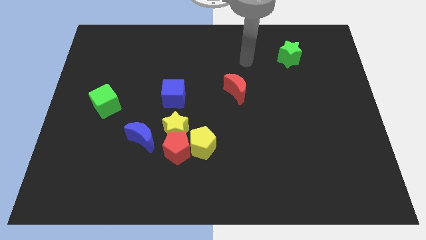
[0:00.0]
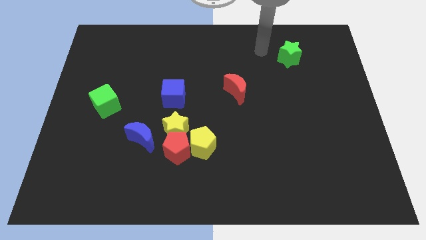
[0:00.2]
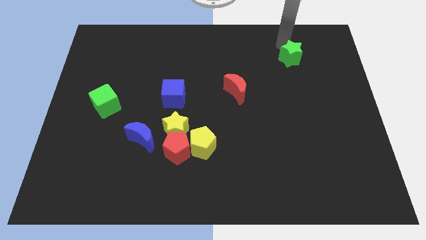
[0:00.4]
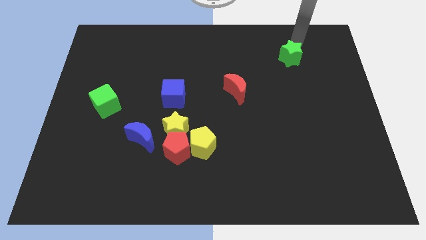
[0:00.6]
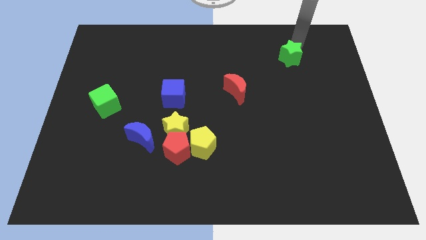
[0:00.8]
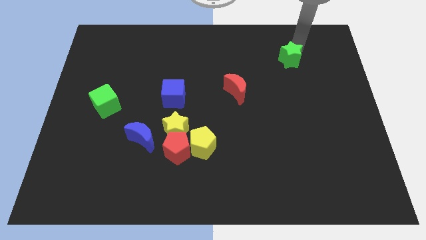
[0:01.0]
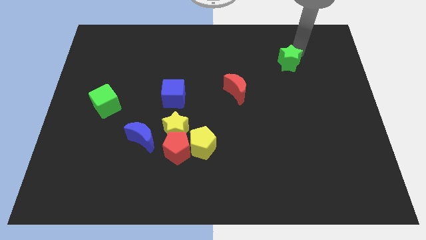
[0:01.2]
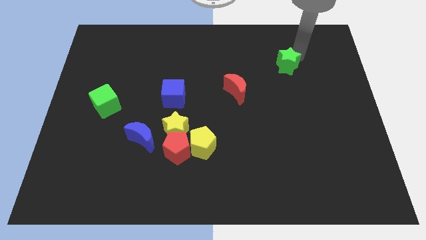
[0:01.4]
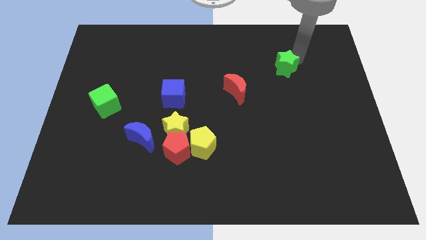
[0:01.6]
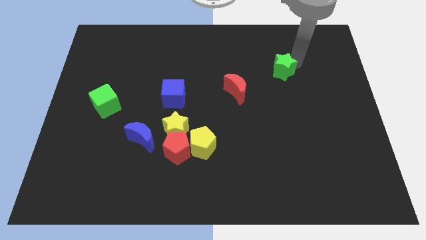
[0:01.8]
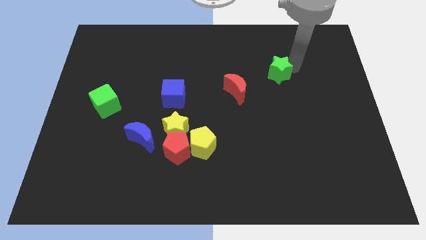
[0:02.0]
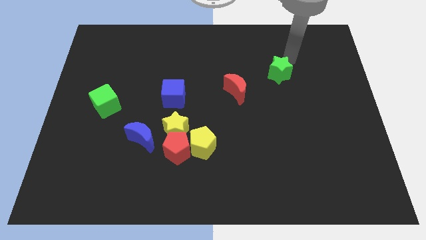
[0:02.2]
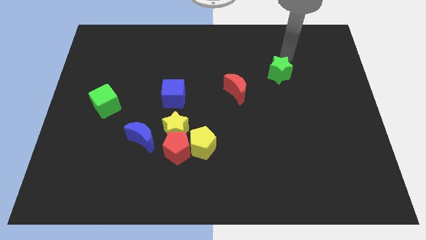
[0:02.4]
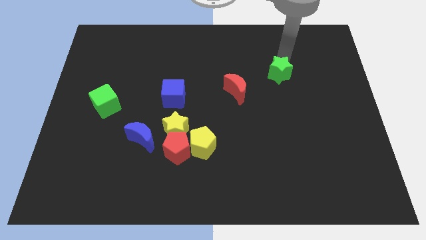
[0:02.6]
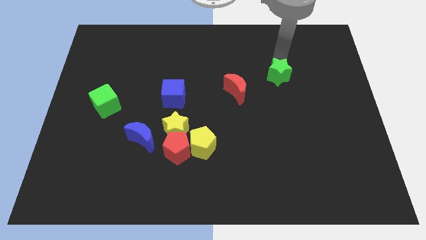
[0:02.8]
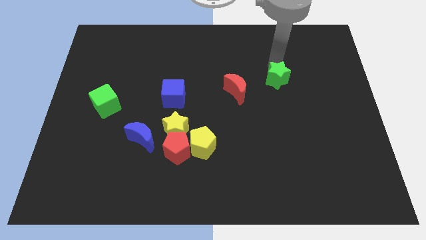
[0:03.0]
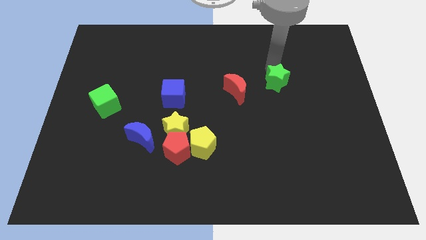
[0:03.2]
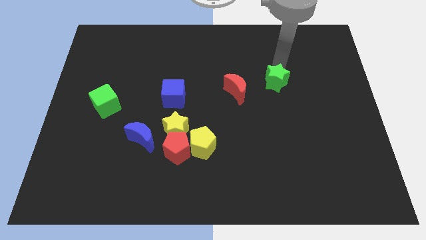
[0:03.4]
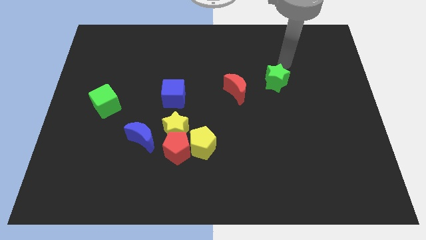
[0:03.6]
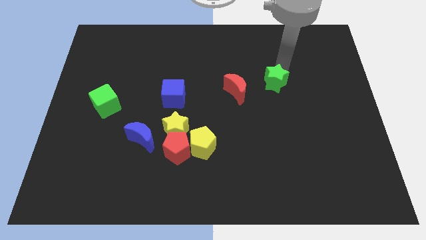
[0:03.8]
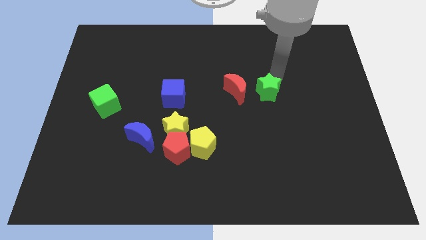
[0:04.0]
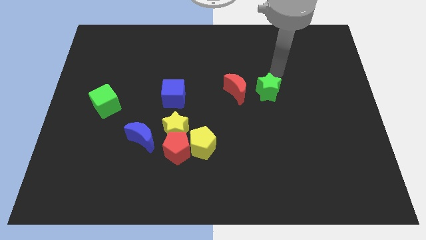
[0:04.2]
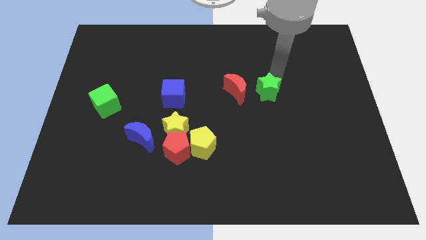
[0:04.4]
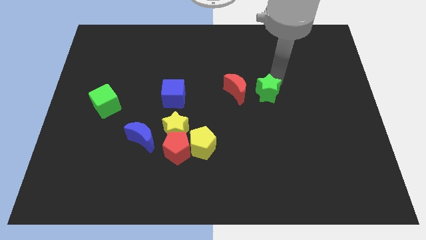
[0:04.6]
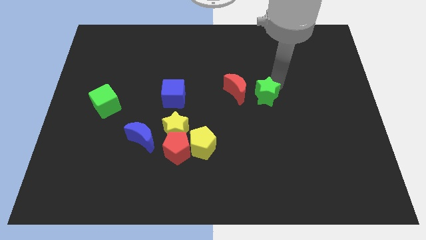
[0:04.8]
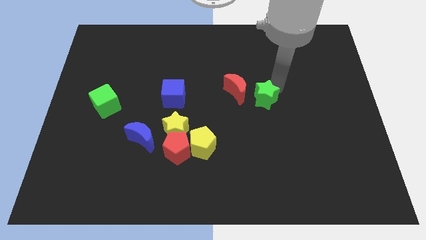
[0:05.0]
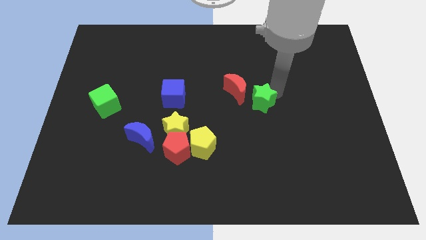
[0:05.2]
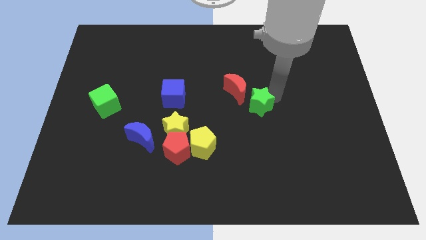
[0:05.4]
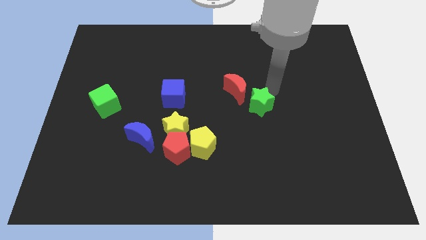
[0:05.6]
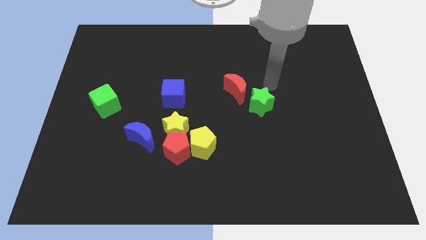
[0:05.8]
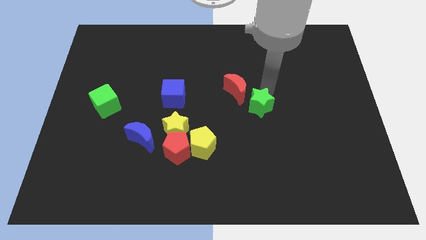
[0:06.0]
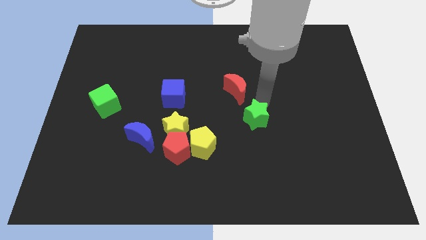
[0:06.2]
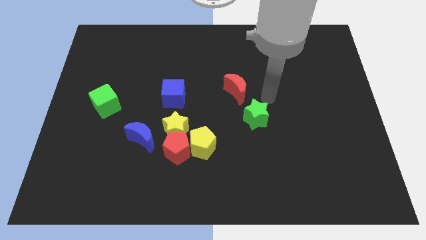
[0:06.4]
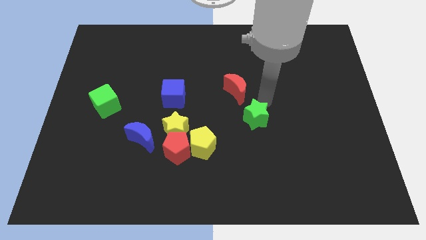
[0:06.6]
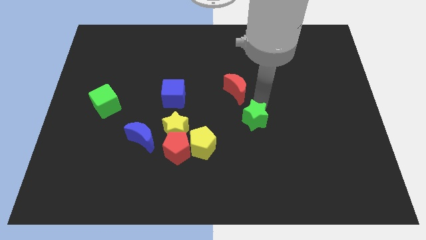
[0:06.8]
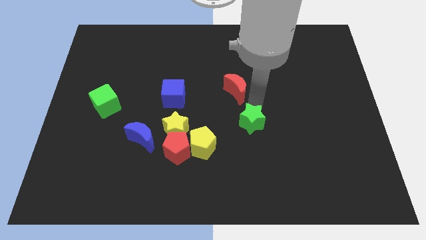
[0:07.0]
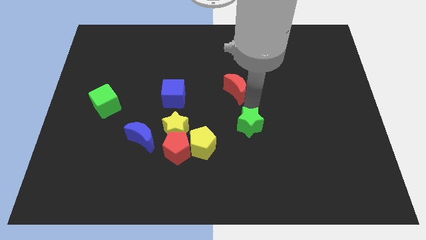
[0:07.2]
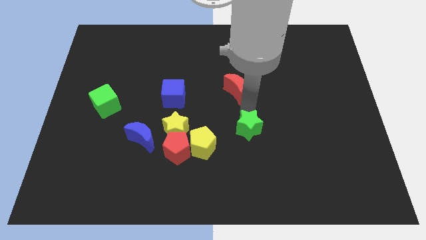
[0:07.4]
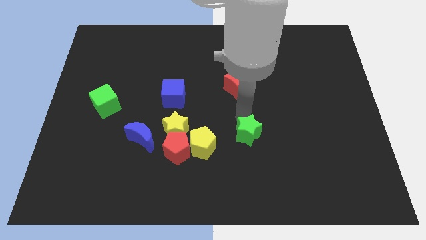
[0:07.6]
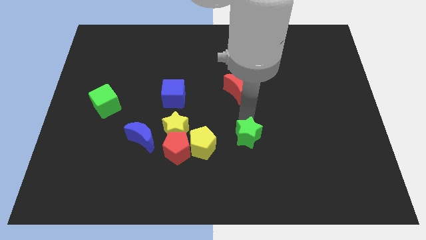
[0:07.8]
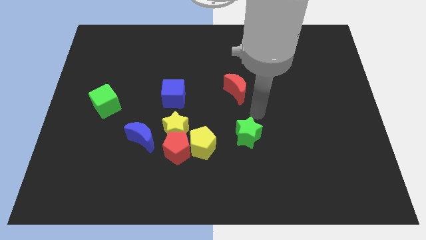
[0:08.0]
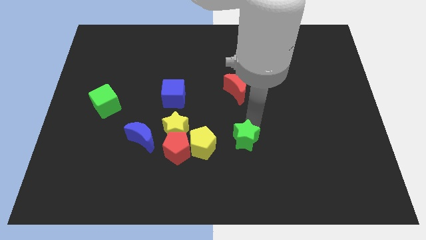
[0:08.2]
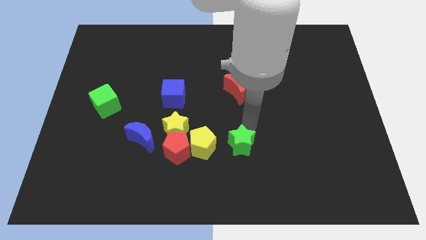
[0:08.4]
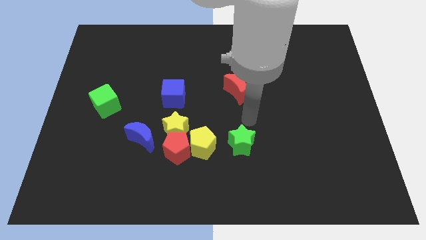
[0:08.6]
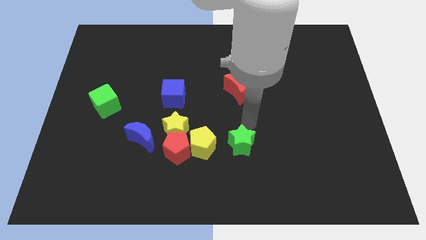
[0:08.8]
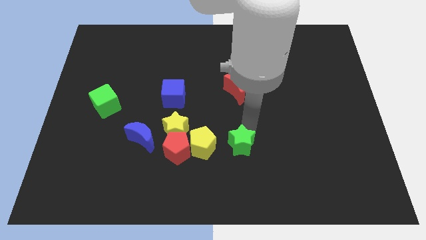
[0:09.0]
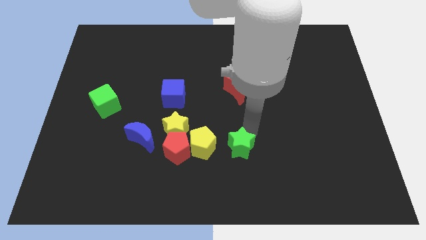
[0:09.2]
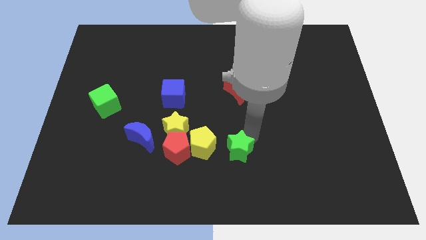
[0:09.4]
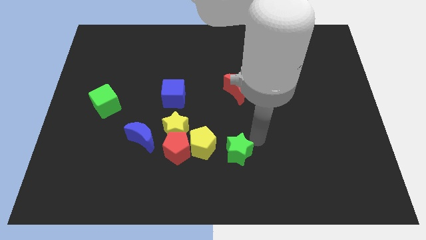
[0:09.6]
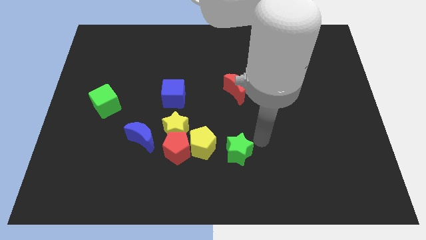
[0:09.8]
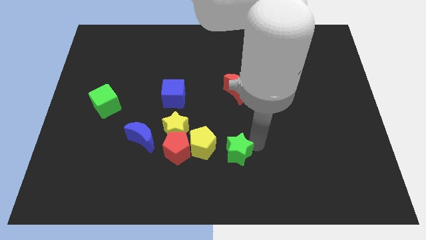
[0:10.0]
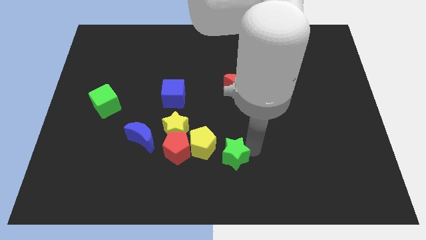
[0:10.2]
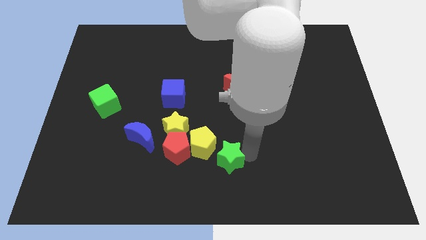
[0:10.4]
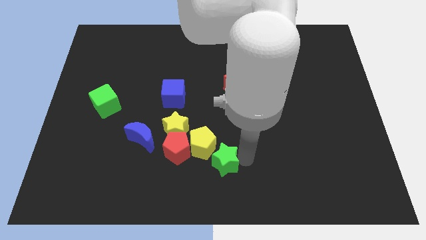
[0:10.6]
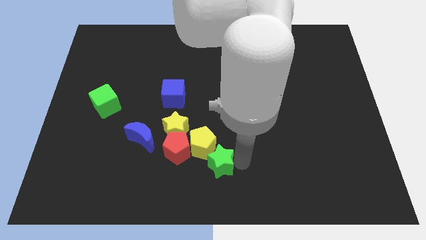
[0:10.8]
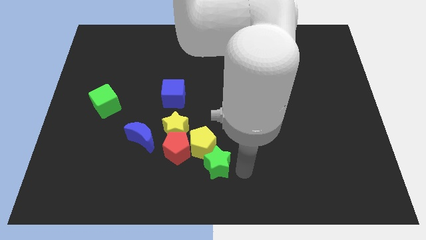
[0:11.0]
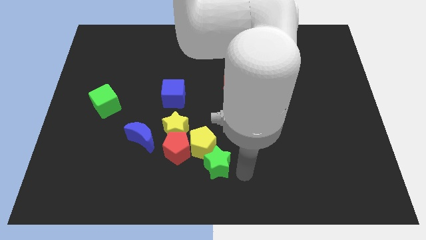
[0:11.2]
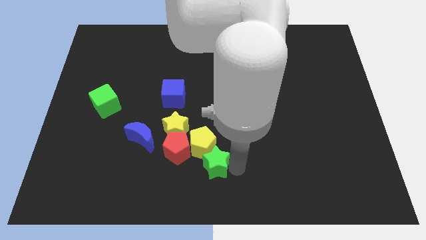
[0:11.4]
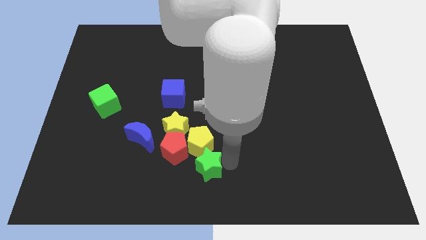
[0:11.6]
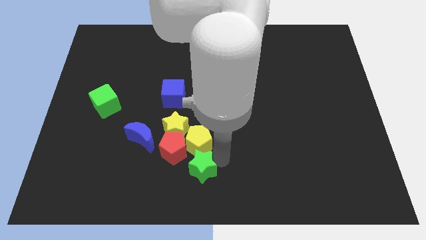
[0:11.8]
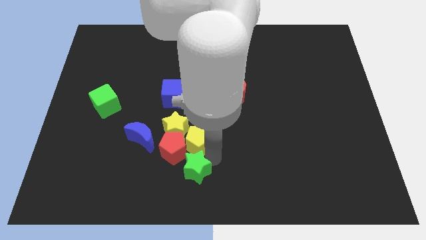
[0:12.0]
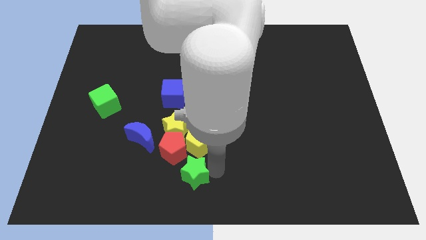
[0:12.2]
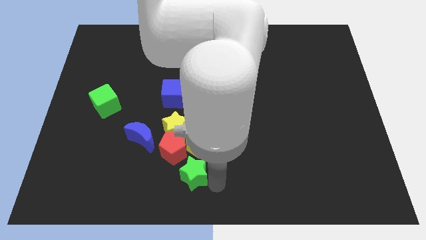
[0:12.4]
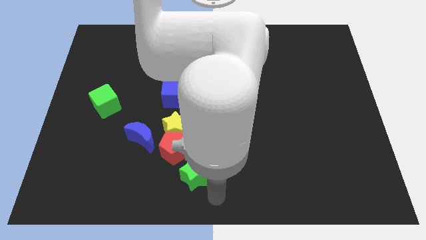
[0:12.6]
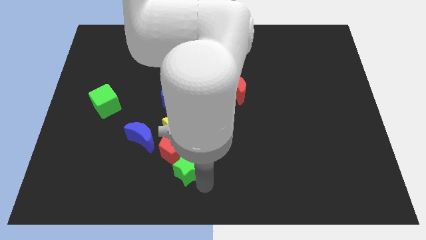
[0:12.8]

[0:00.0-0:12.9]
push the green star to the red pentagon

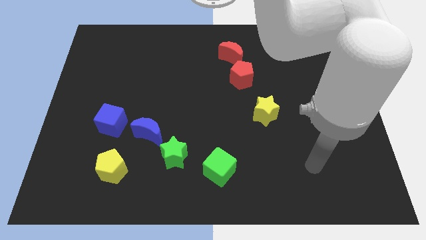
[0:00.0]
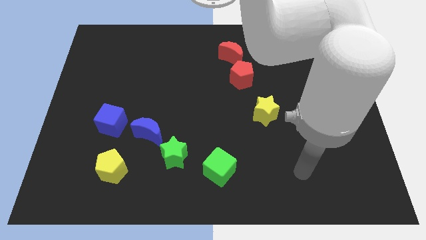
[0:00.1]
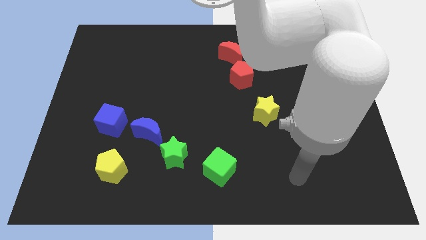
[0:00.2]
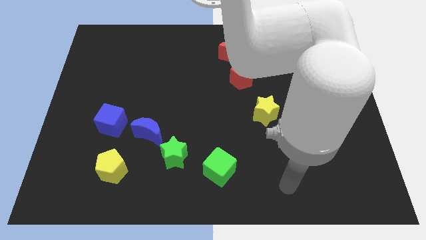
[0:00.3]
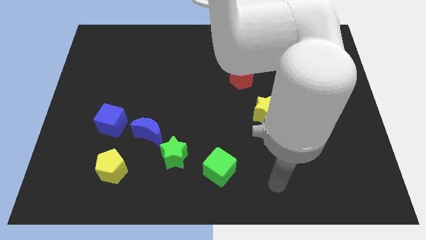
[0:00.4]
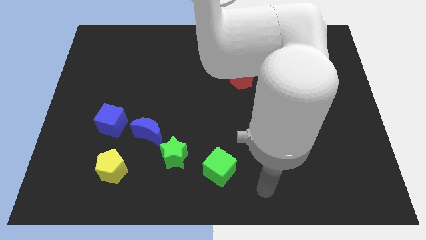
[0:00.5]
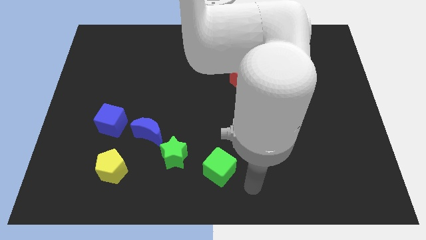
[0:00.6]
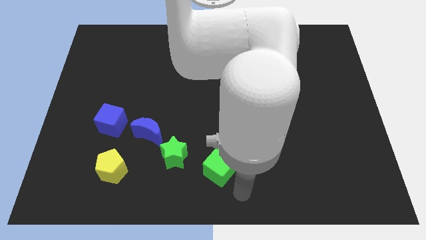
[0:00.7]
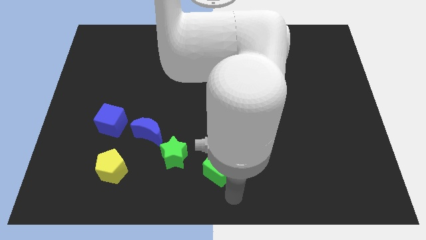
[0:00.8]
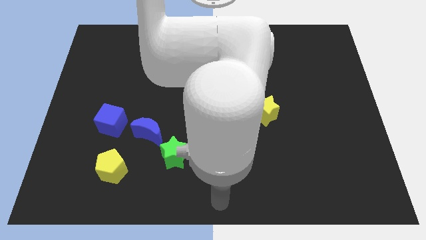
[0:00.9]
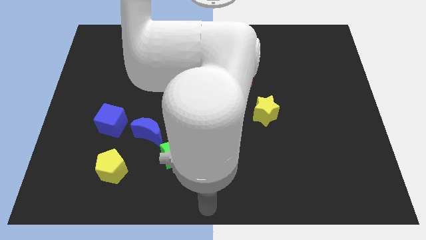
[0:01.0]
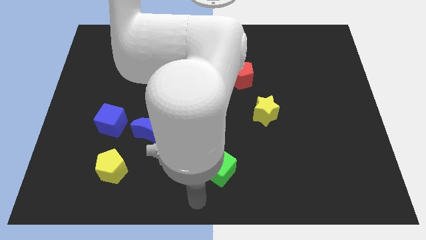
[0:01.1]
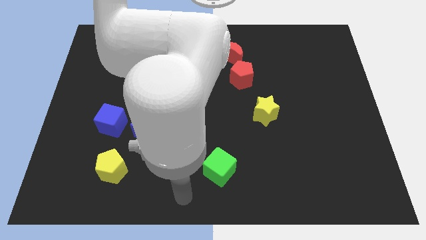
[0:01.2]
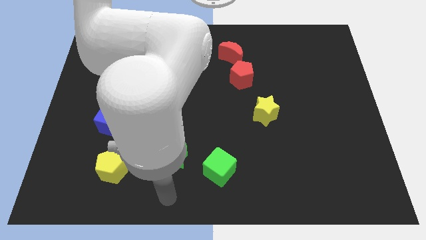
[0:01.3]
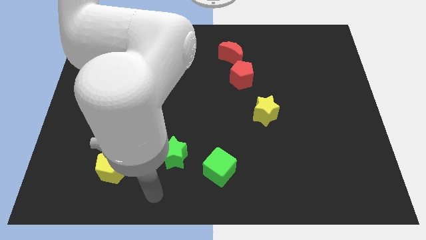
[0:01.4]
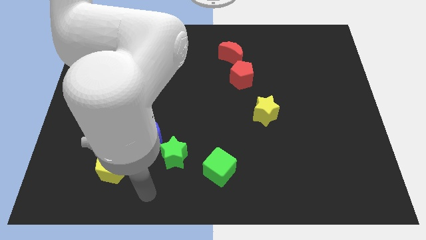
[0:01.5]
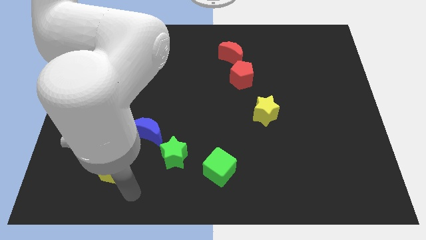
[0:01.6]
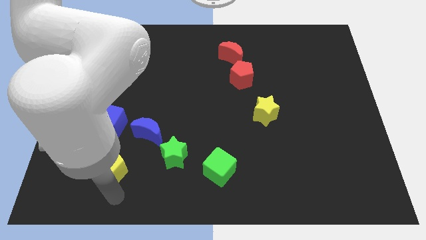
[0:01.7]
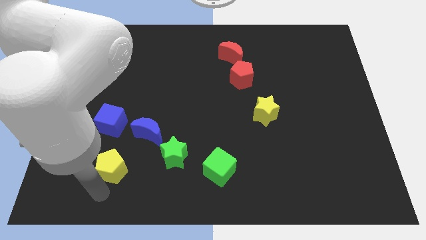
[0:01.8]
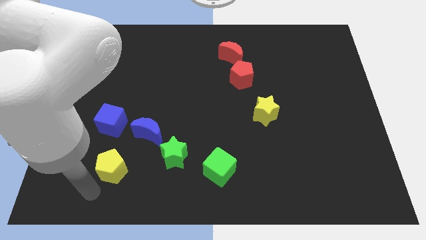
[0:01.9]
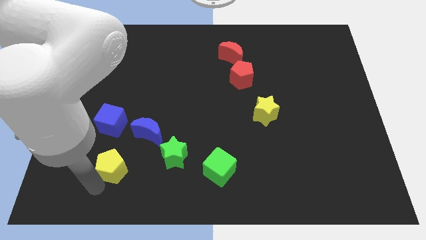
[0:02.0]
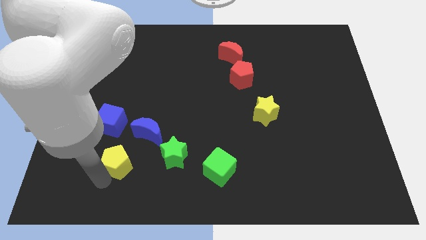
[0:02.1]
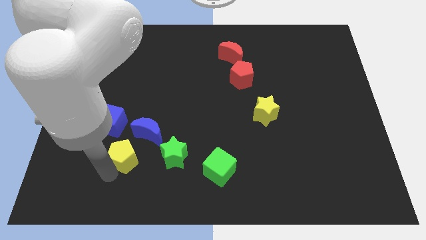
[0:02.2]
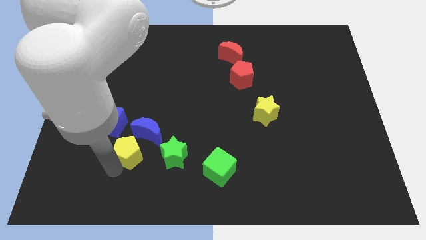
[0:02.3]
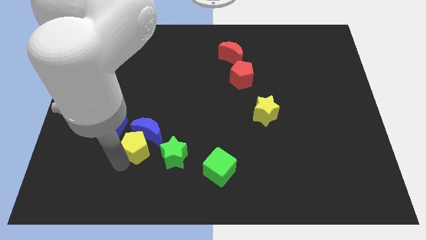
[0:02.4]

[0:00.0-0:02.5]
slide the yellow pentagon to the blue moon
